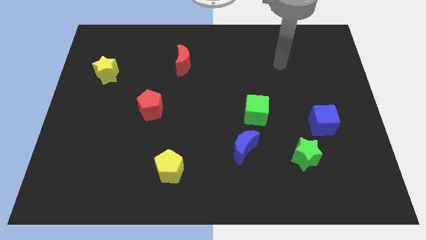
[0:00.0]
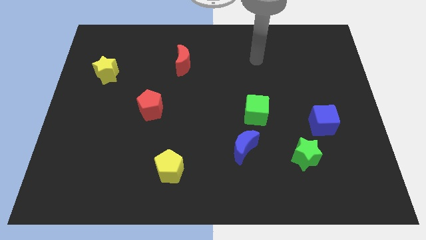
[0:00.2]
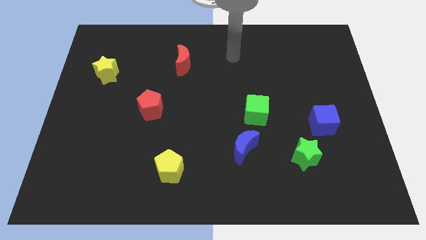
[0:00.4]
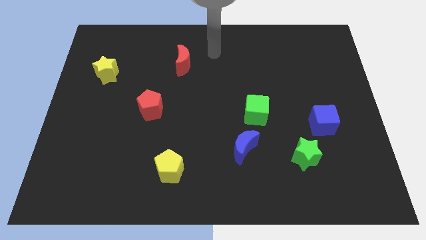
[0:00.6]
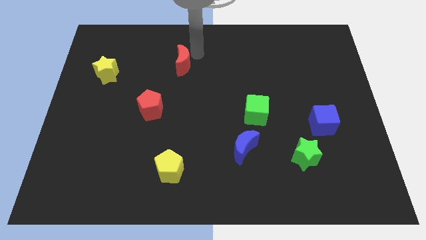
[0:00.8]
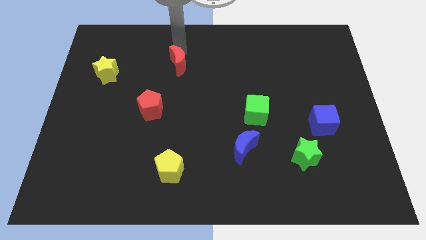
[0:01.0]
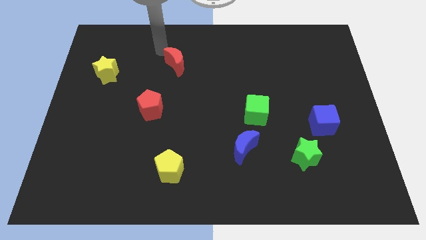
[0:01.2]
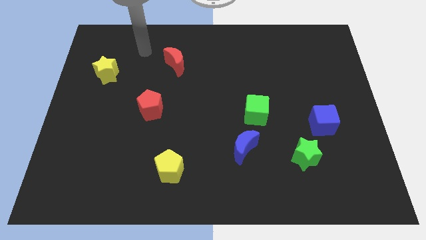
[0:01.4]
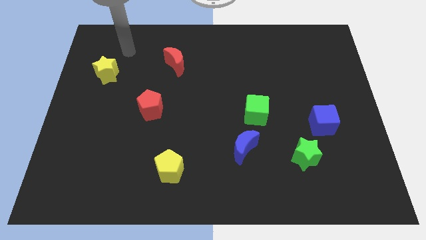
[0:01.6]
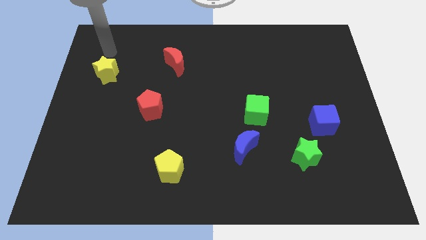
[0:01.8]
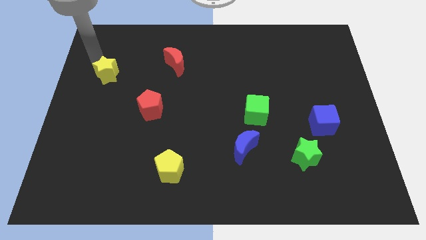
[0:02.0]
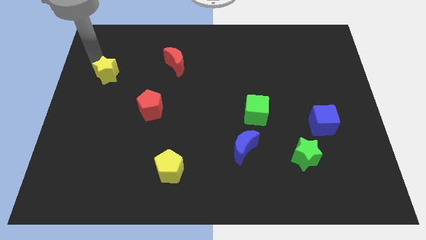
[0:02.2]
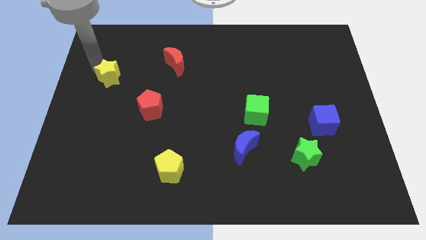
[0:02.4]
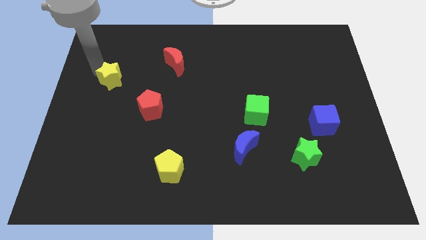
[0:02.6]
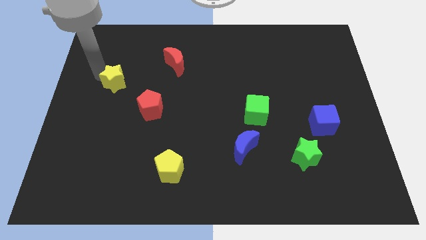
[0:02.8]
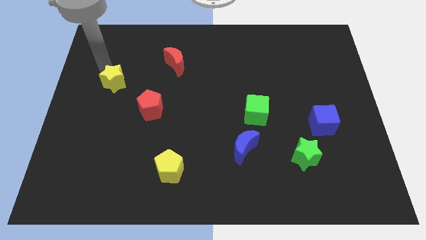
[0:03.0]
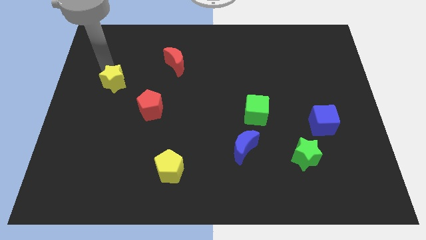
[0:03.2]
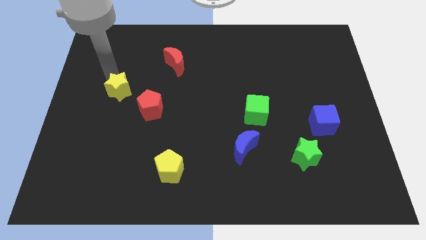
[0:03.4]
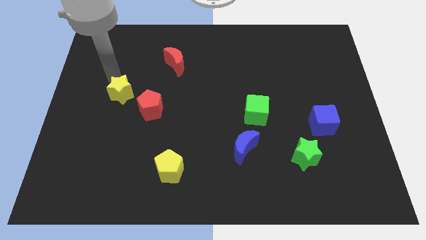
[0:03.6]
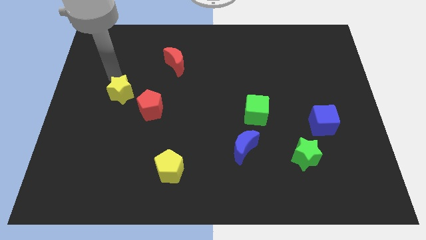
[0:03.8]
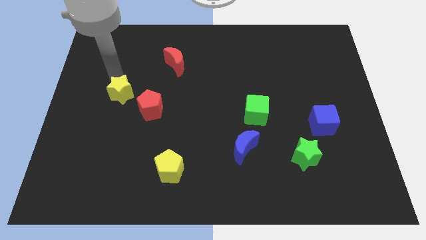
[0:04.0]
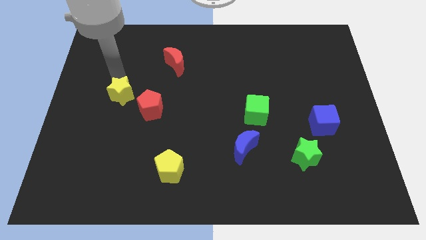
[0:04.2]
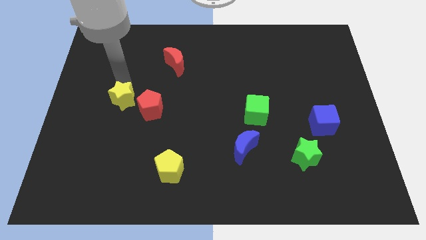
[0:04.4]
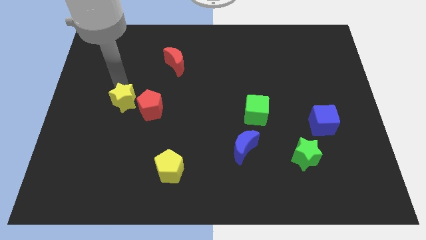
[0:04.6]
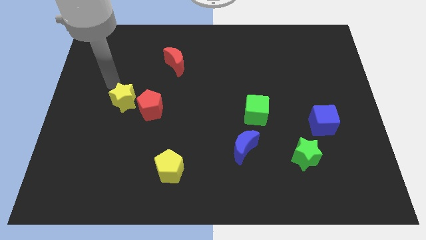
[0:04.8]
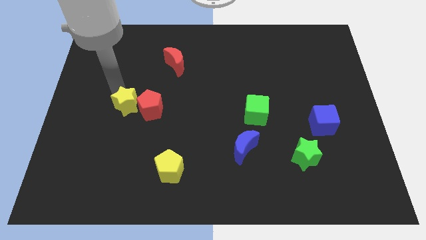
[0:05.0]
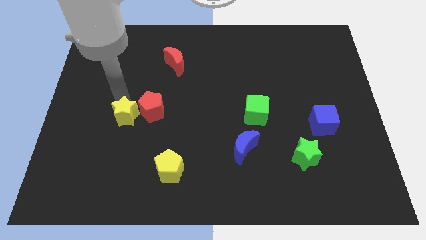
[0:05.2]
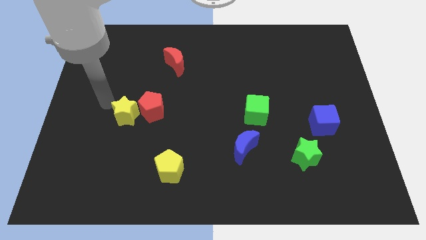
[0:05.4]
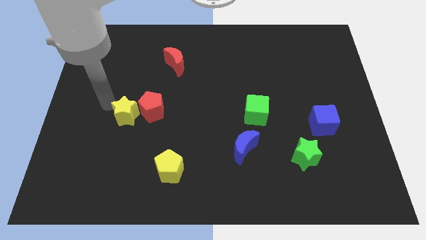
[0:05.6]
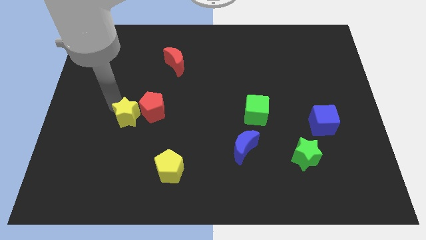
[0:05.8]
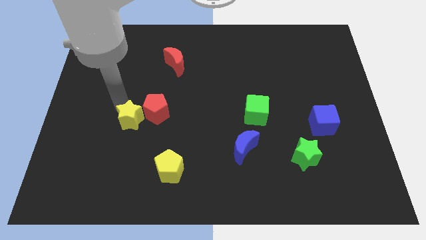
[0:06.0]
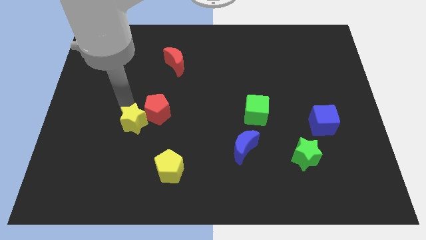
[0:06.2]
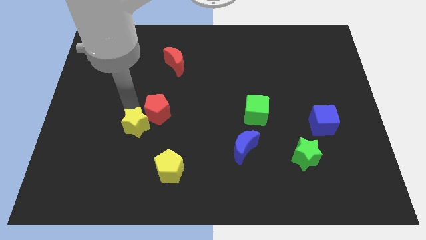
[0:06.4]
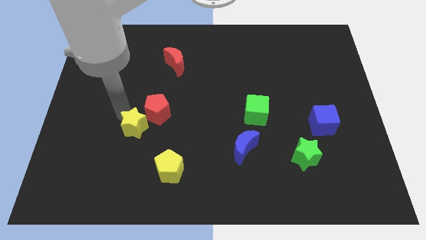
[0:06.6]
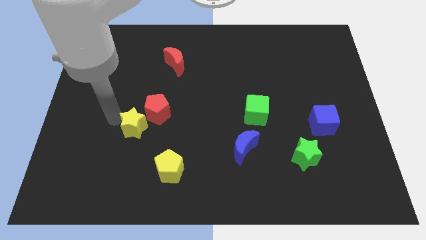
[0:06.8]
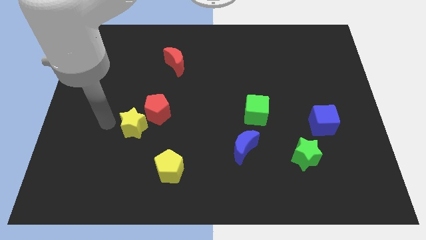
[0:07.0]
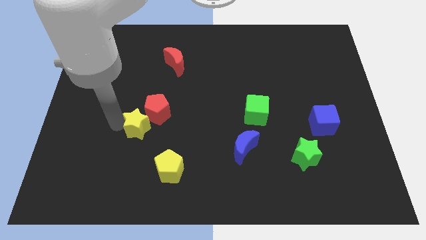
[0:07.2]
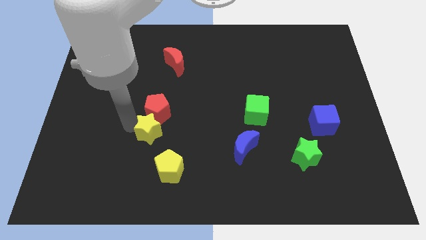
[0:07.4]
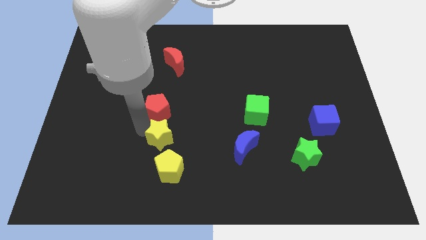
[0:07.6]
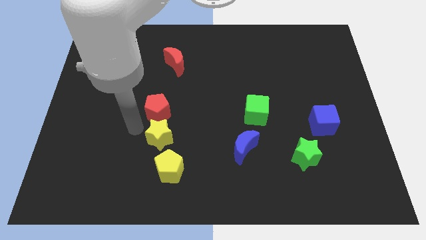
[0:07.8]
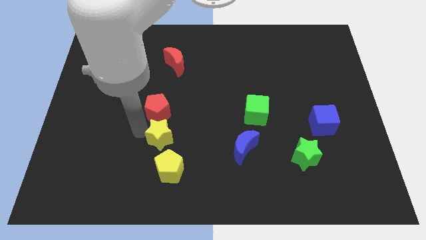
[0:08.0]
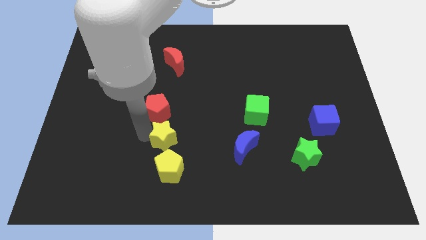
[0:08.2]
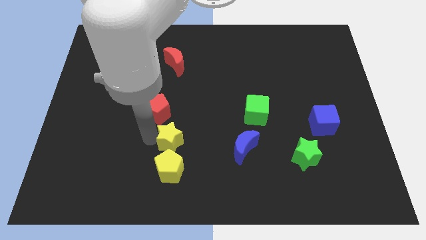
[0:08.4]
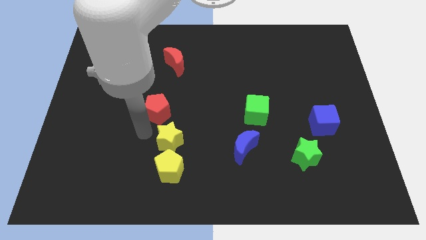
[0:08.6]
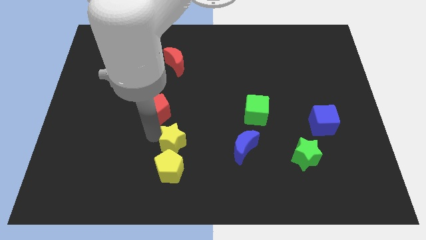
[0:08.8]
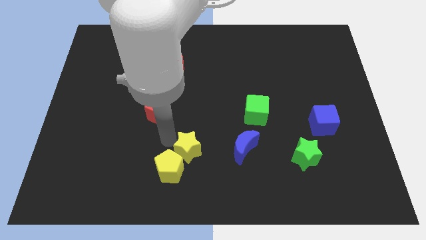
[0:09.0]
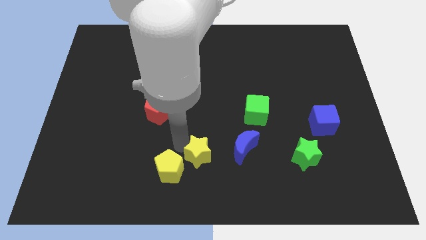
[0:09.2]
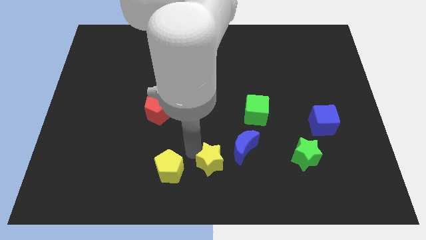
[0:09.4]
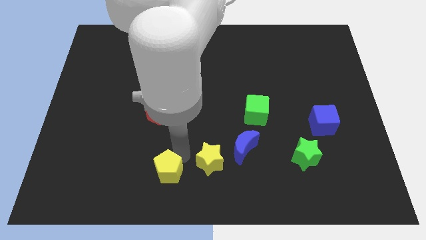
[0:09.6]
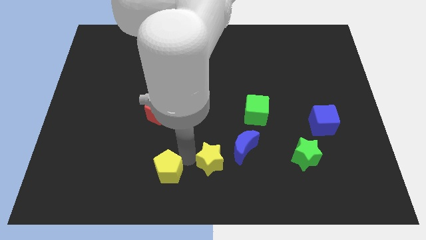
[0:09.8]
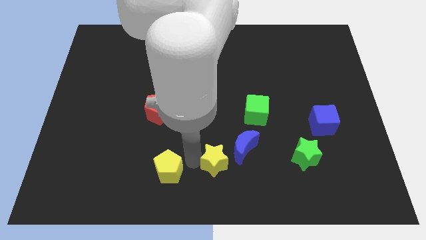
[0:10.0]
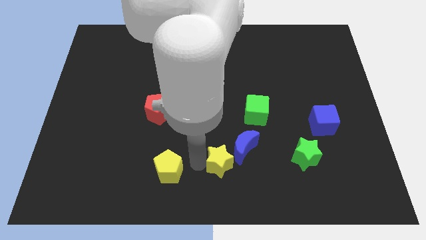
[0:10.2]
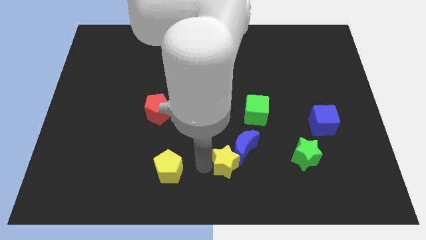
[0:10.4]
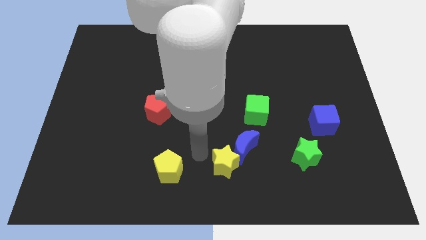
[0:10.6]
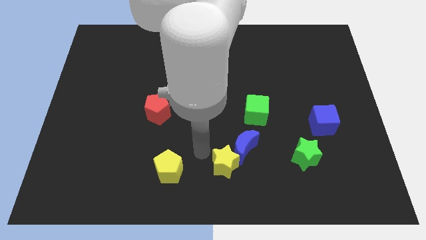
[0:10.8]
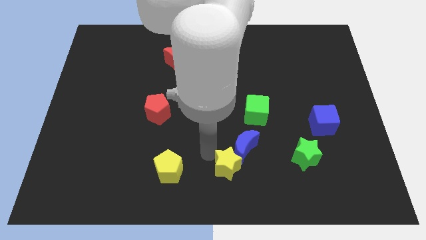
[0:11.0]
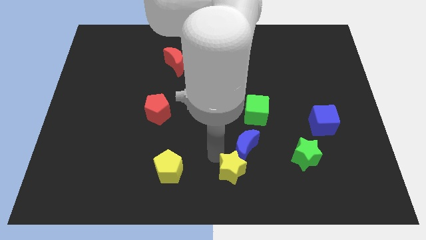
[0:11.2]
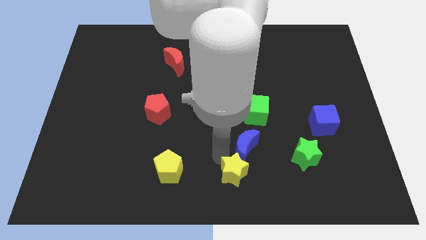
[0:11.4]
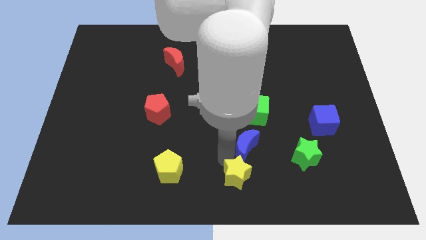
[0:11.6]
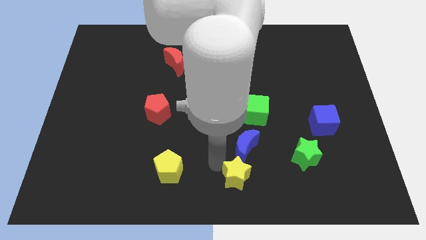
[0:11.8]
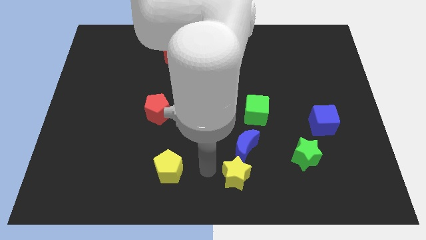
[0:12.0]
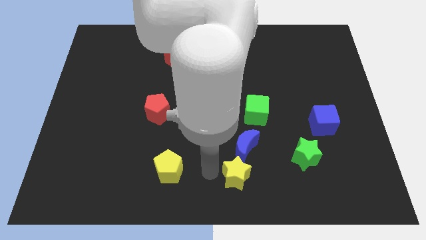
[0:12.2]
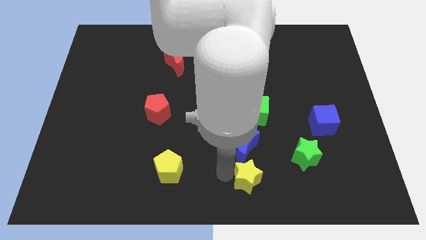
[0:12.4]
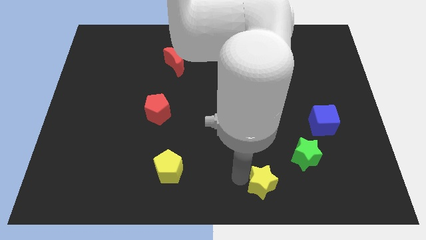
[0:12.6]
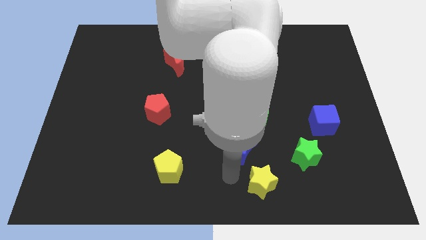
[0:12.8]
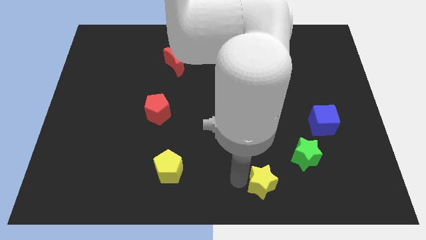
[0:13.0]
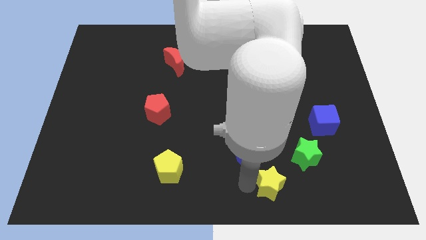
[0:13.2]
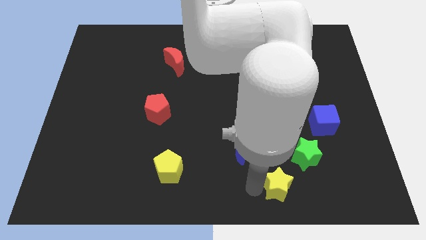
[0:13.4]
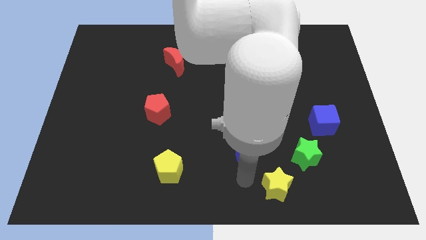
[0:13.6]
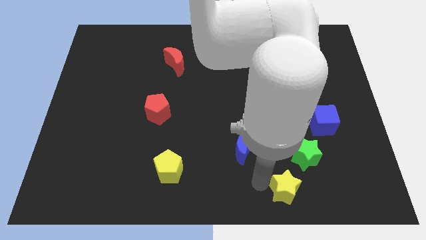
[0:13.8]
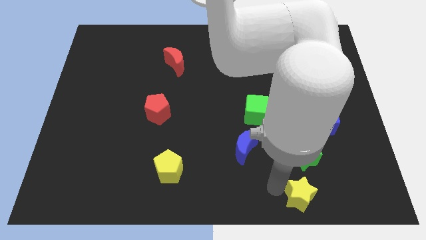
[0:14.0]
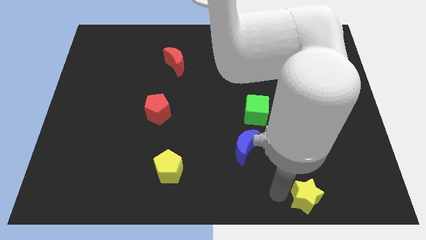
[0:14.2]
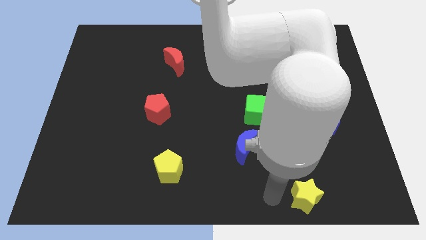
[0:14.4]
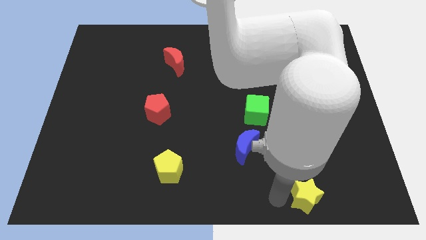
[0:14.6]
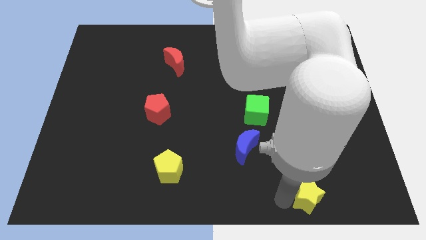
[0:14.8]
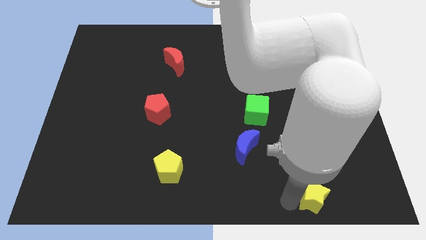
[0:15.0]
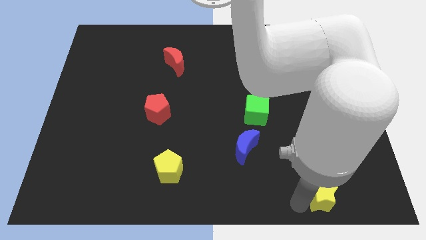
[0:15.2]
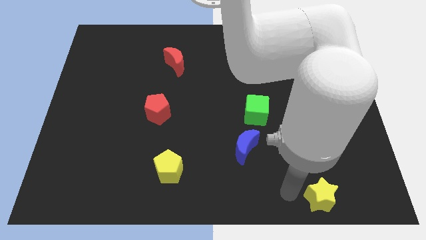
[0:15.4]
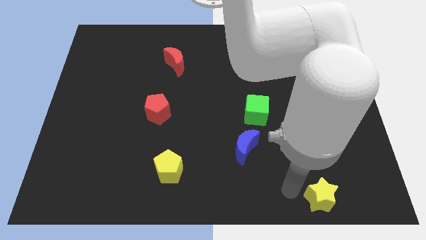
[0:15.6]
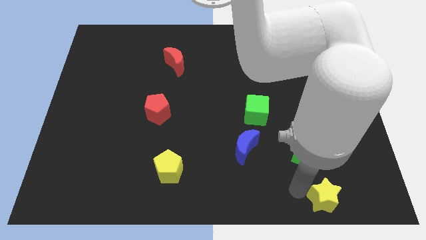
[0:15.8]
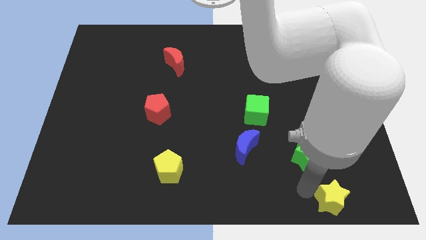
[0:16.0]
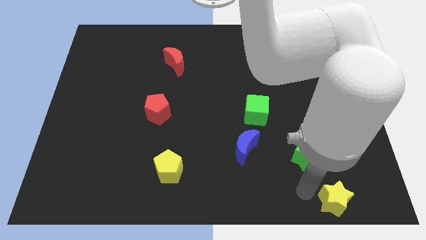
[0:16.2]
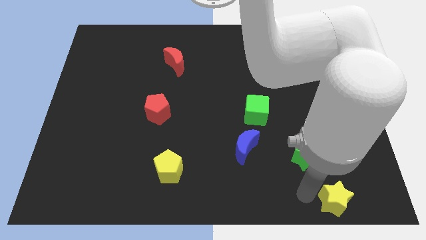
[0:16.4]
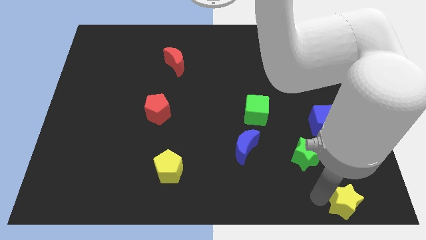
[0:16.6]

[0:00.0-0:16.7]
move the yellow star to the bottom right corner
